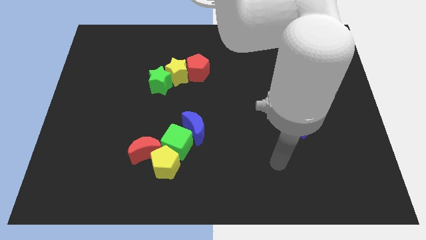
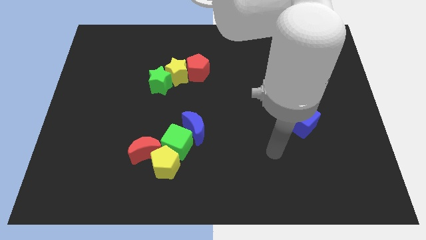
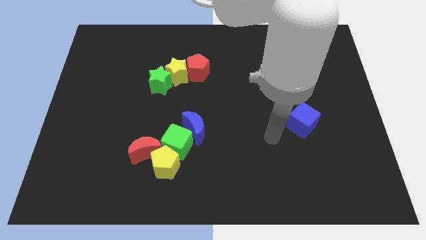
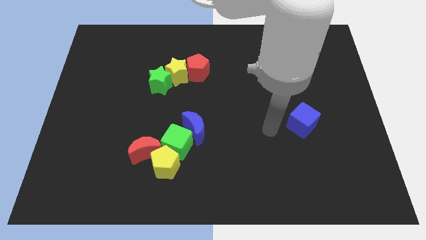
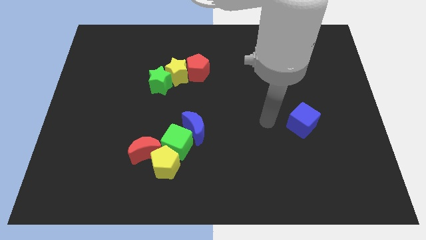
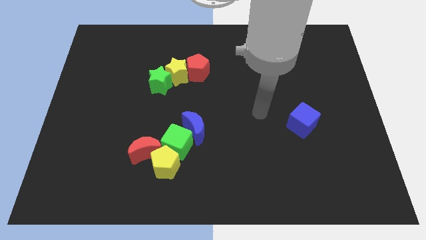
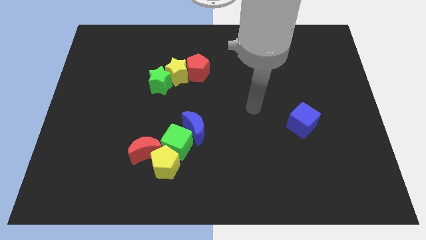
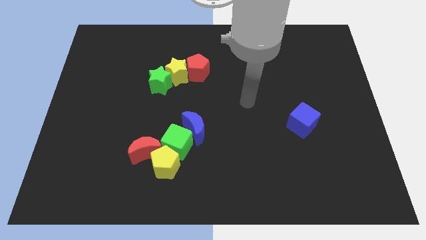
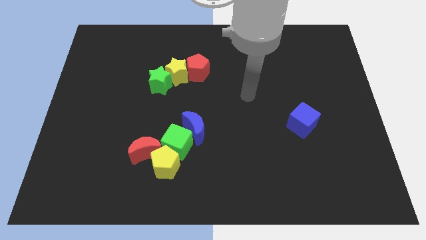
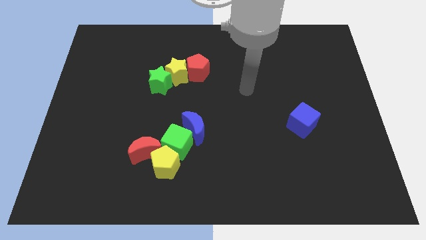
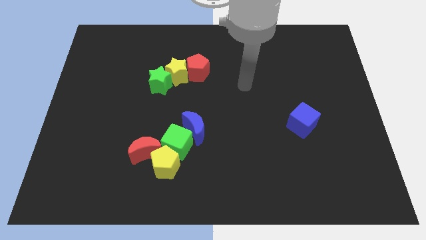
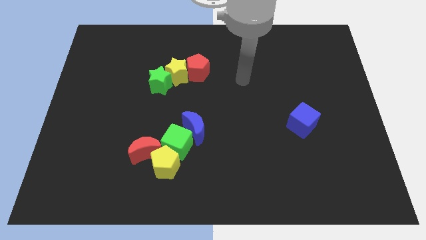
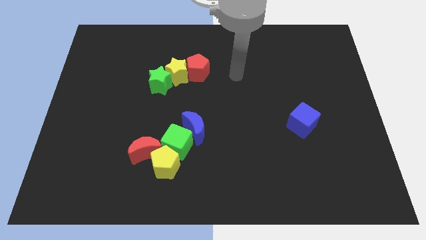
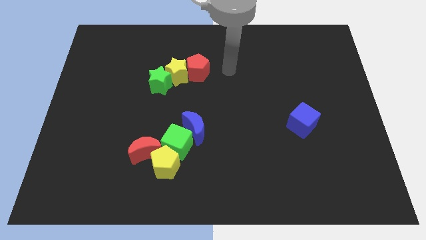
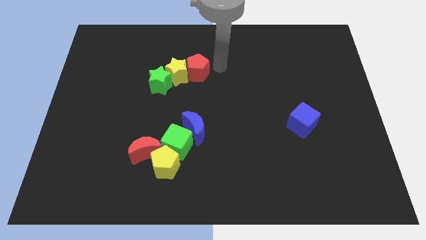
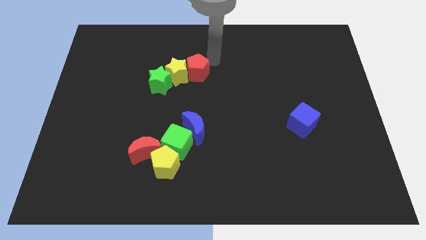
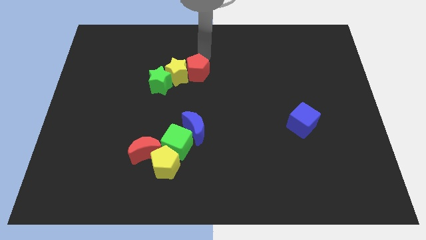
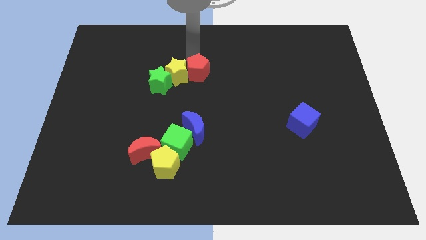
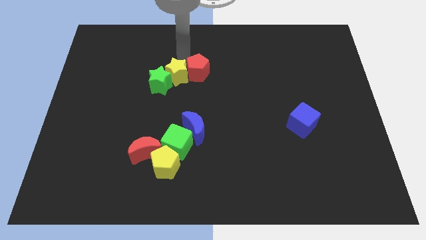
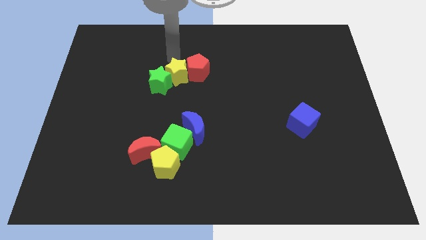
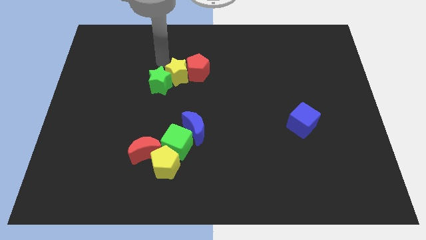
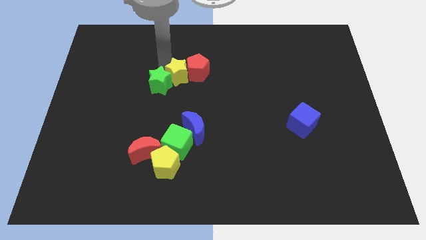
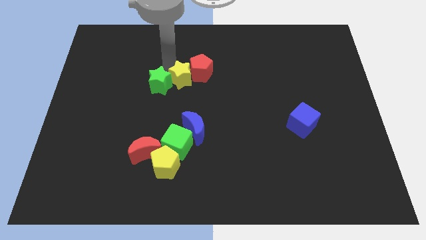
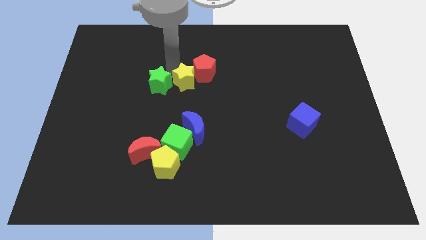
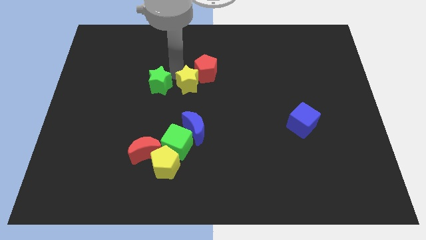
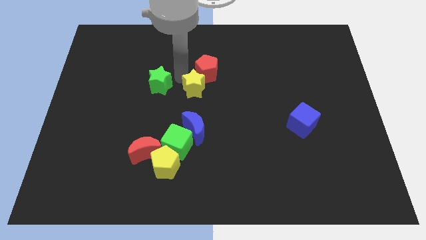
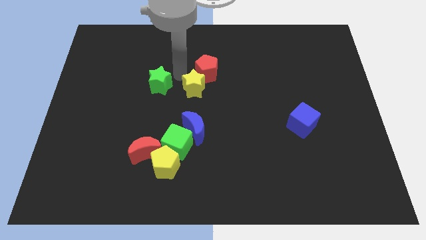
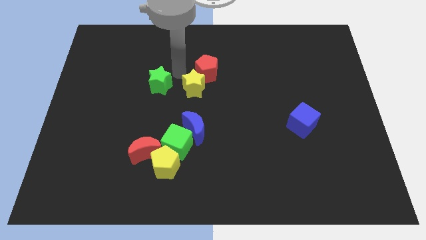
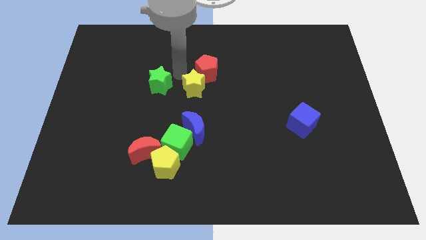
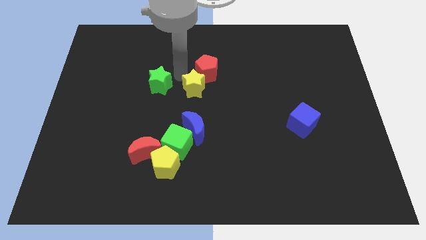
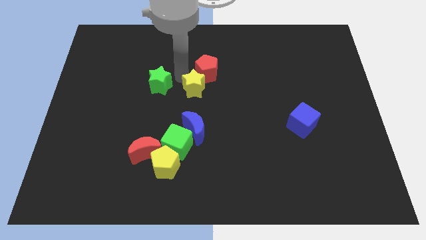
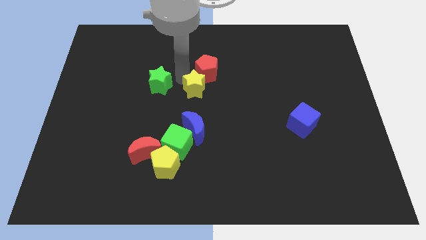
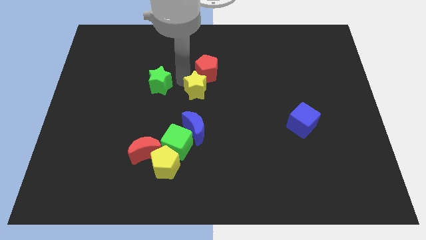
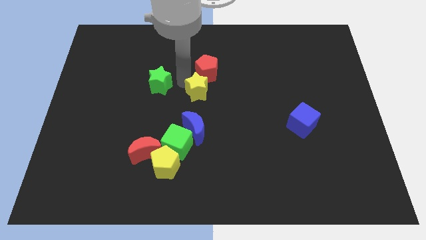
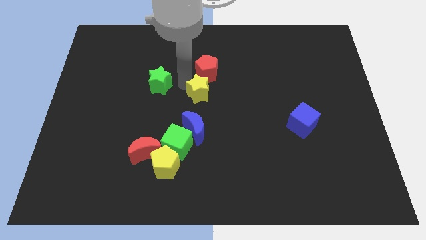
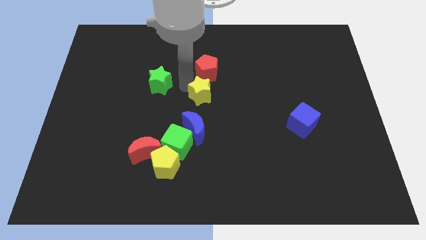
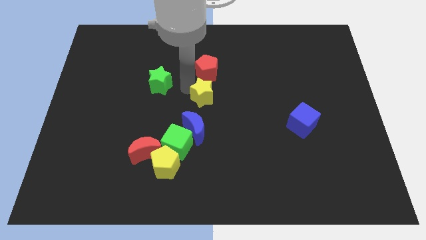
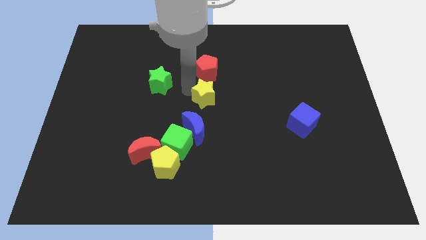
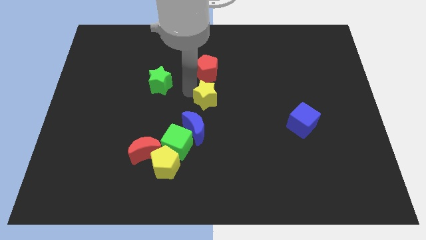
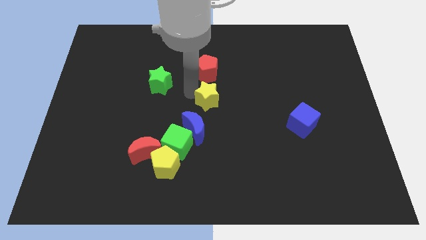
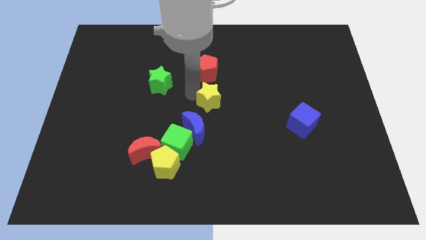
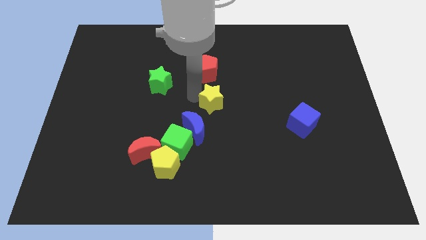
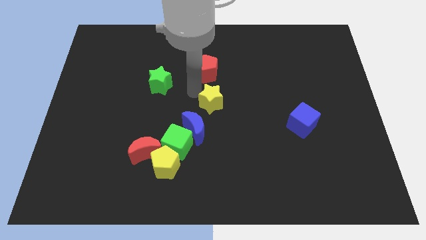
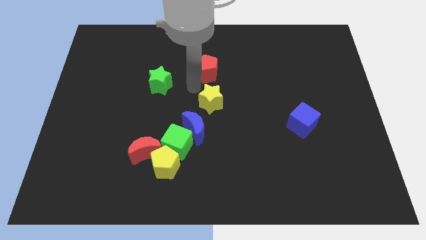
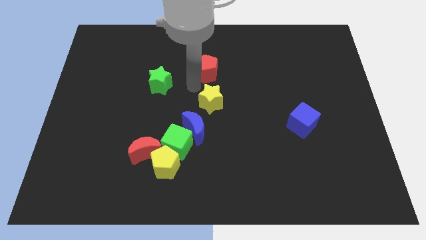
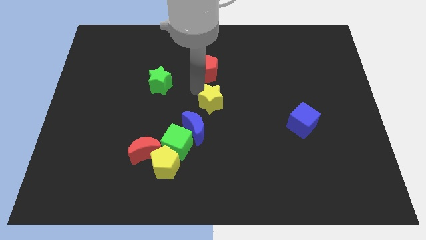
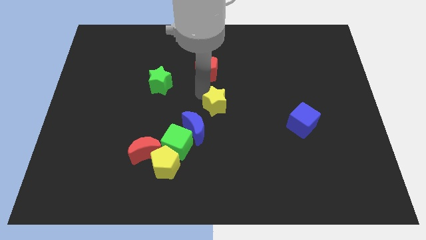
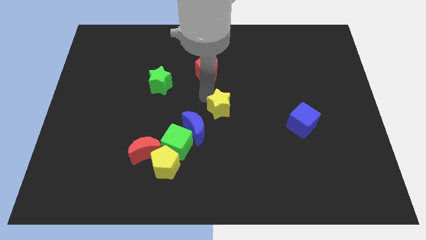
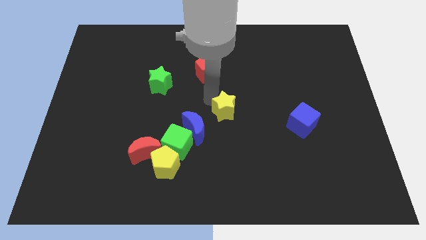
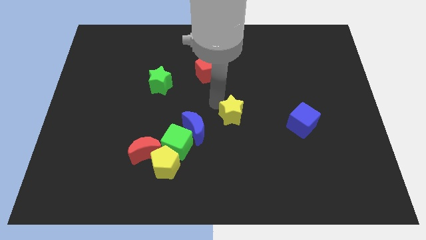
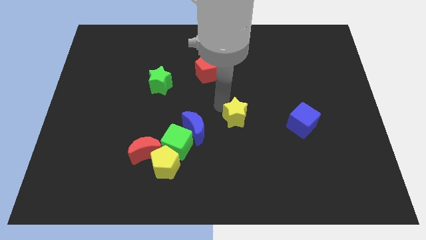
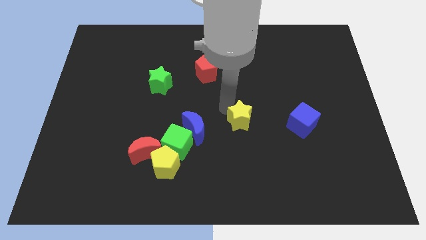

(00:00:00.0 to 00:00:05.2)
move the yellow star downwards and right

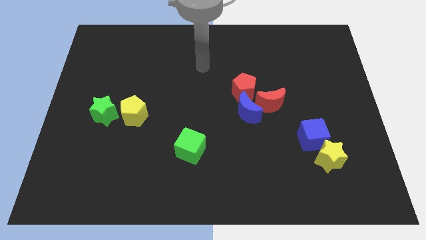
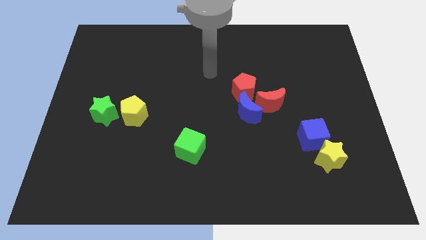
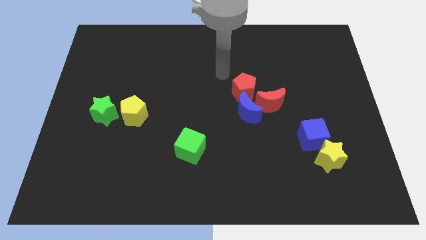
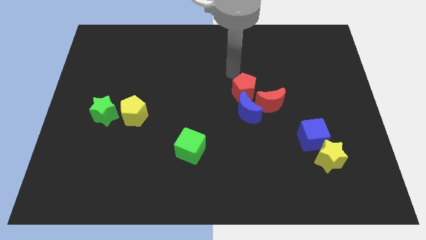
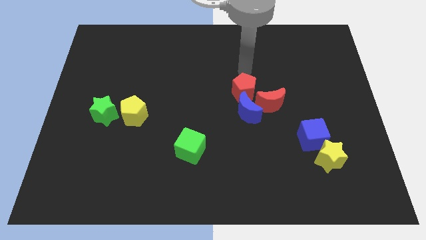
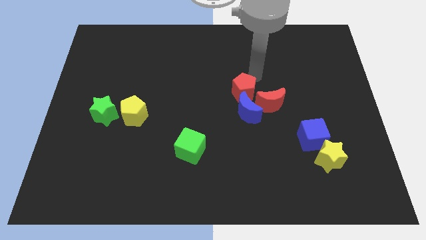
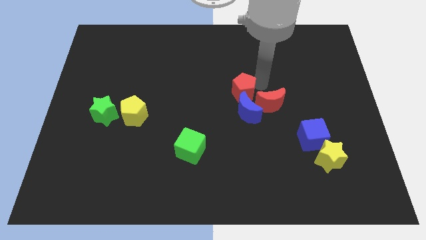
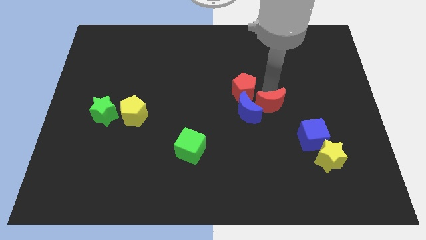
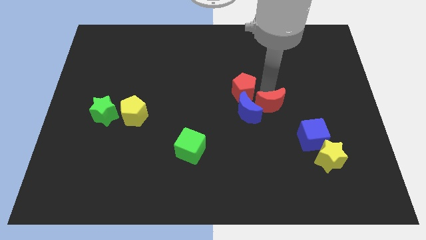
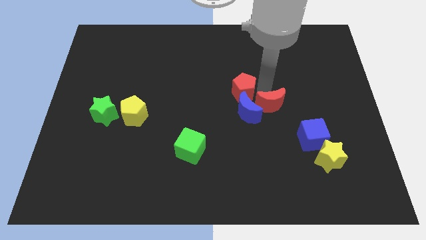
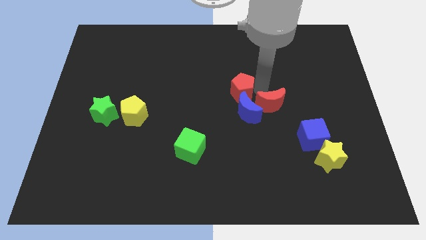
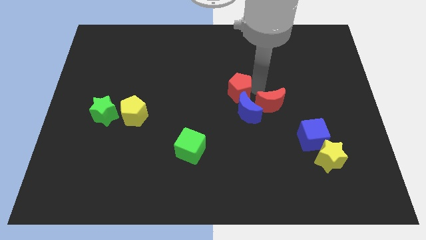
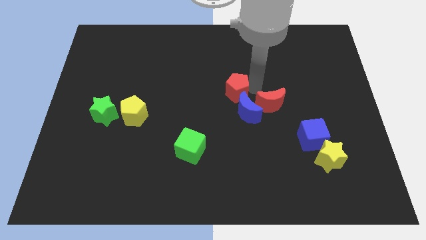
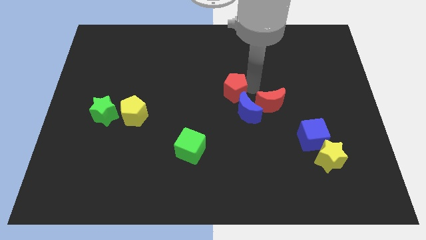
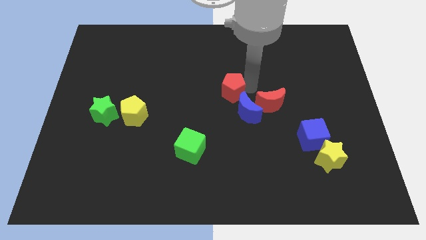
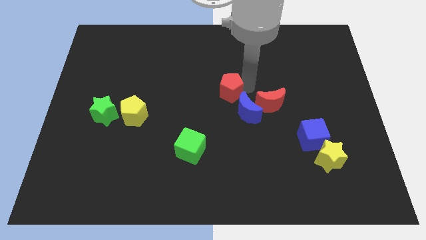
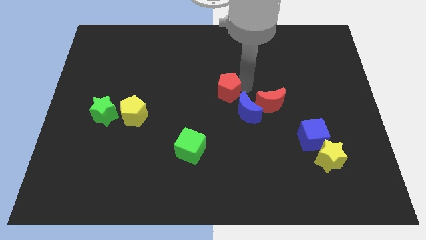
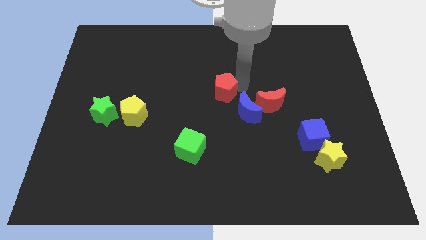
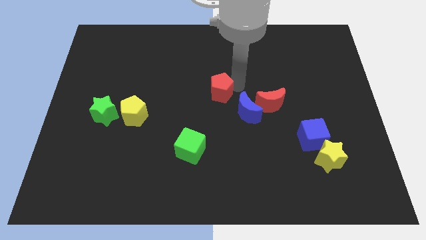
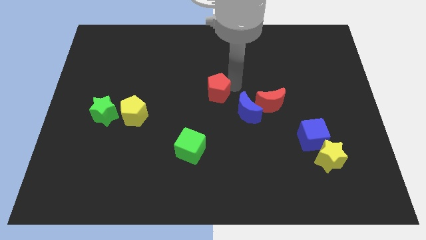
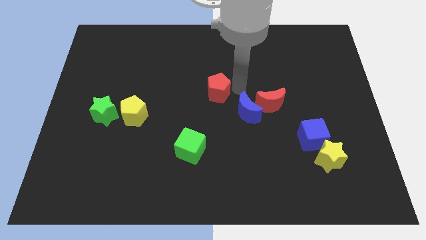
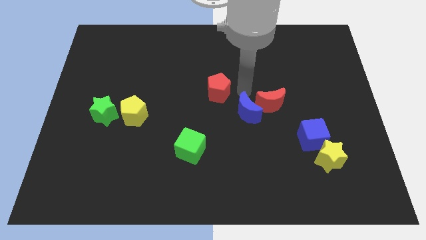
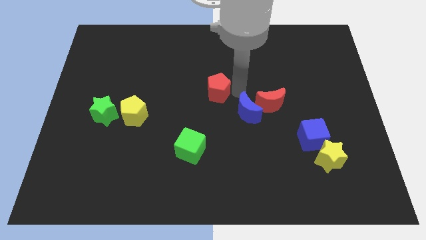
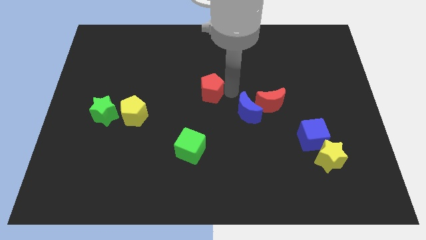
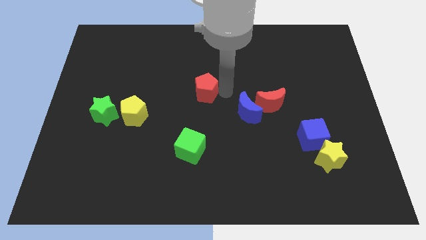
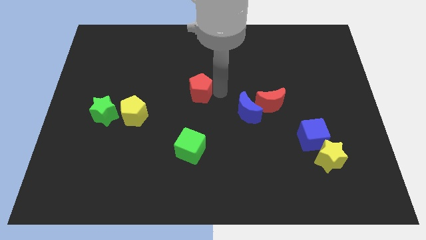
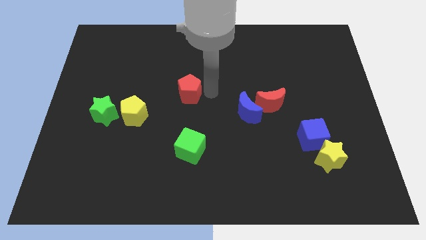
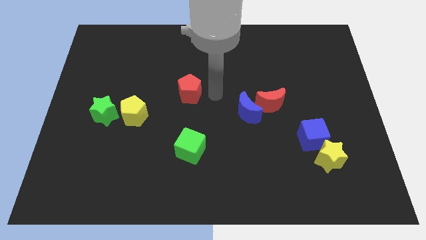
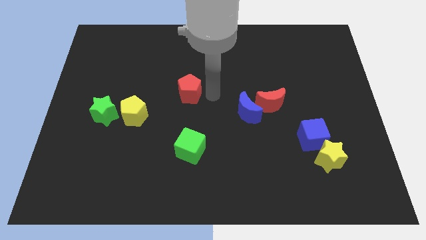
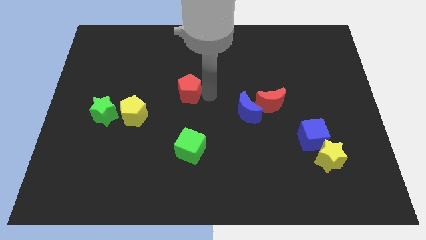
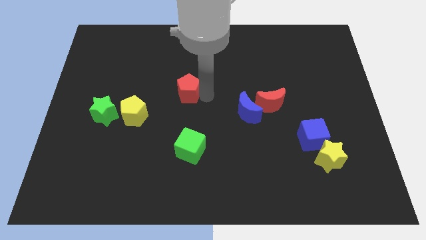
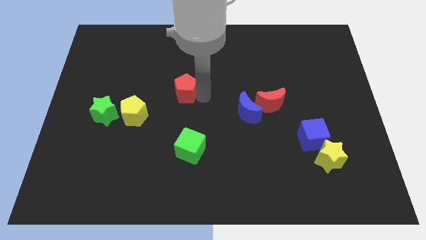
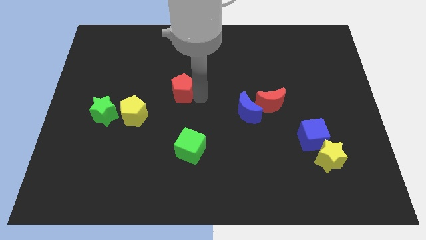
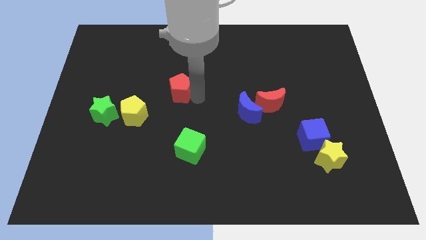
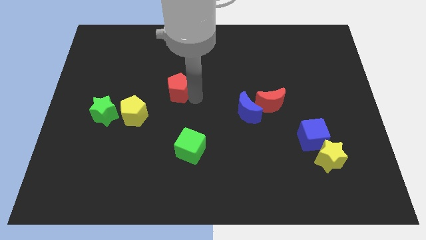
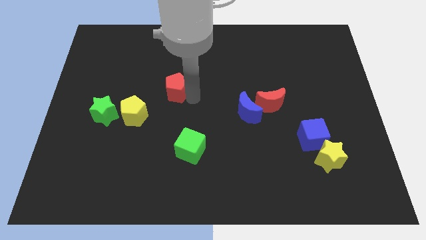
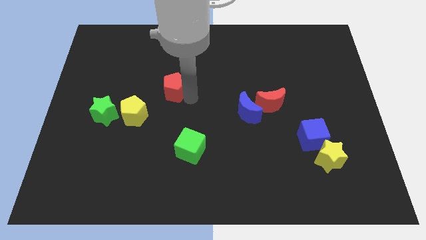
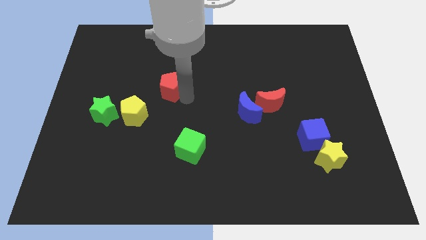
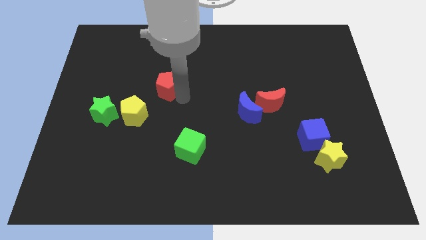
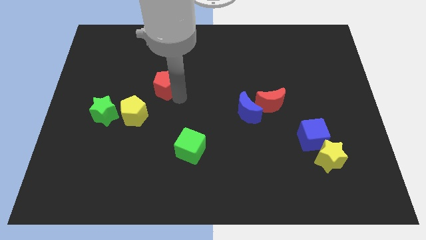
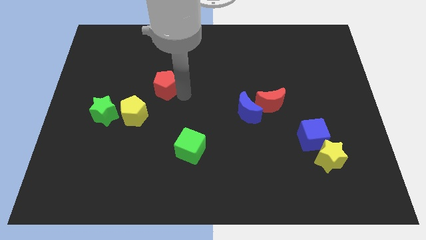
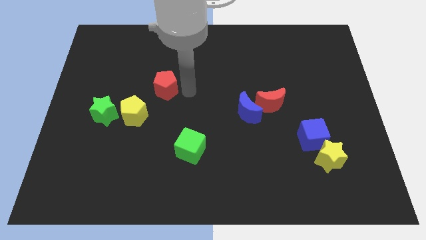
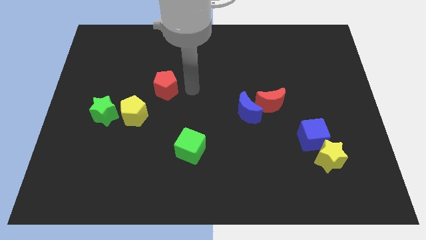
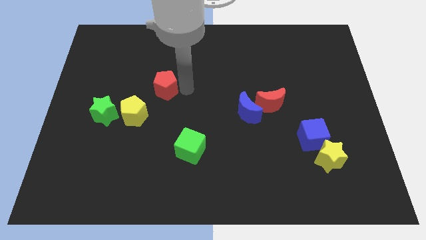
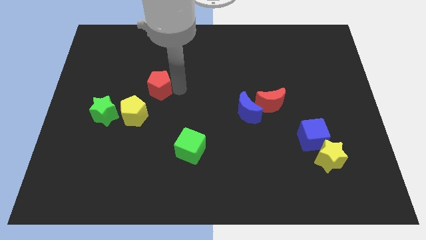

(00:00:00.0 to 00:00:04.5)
push the red pentagon to the left
